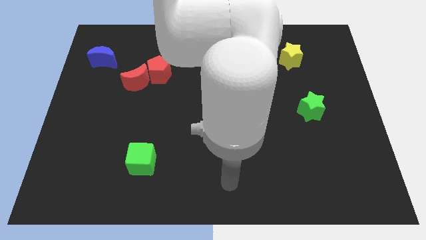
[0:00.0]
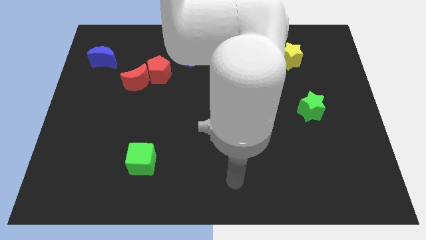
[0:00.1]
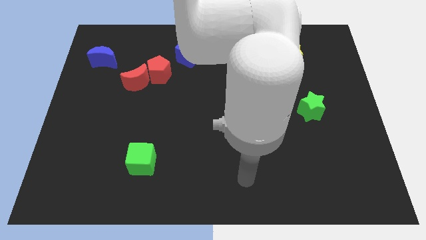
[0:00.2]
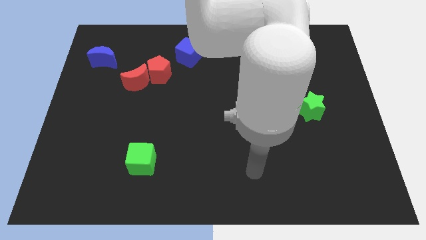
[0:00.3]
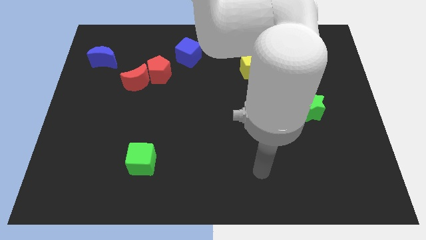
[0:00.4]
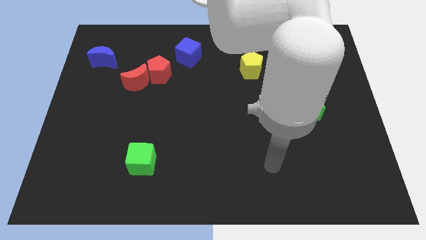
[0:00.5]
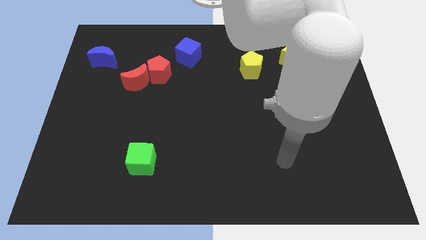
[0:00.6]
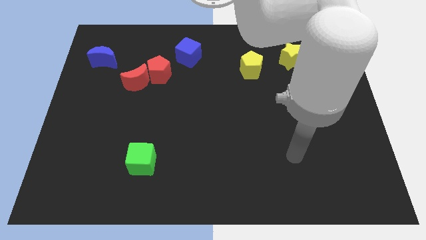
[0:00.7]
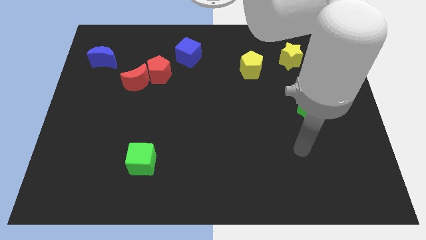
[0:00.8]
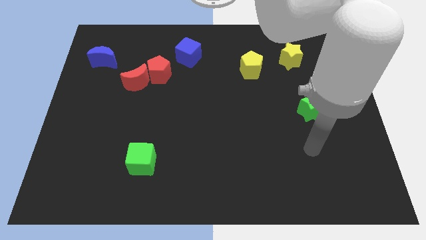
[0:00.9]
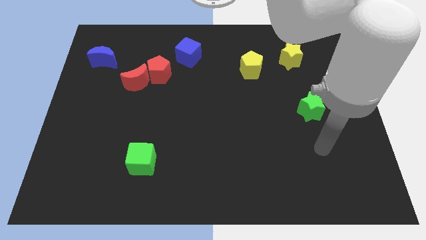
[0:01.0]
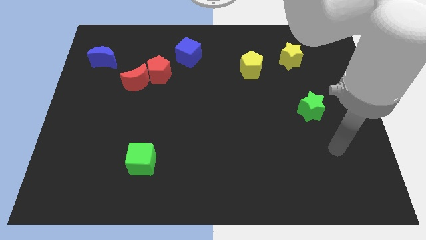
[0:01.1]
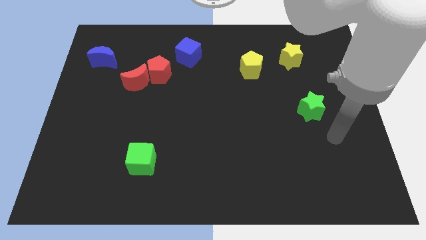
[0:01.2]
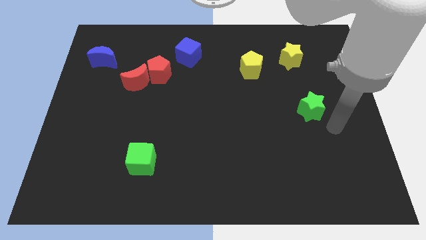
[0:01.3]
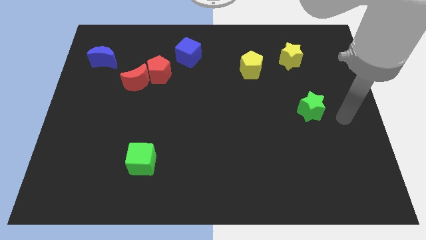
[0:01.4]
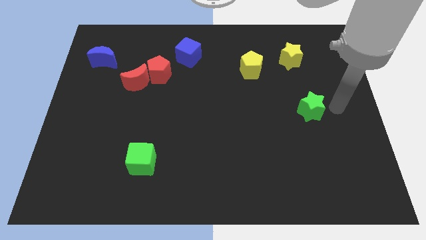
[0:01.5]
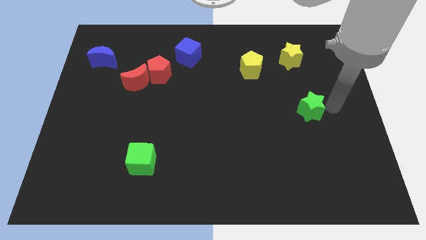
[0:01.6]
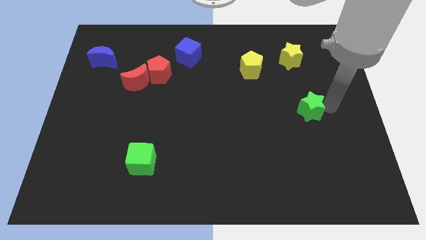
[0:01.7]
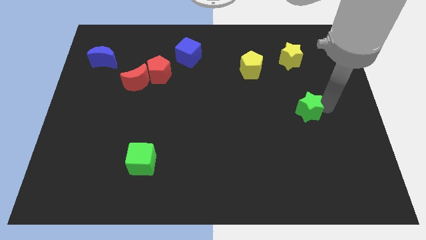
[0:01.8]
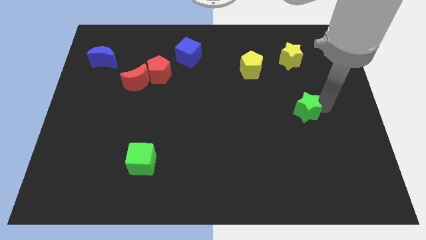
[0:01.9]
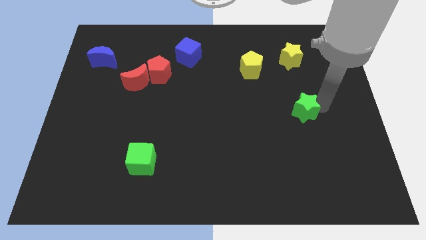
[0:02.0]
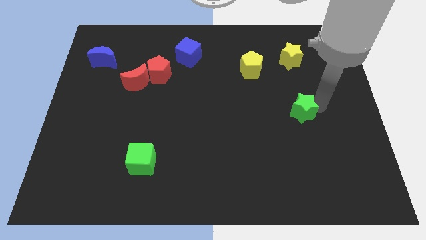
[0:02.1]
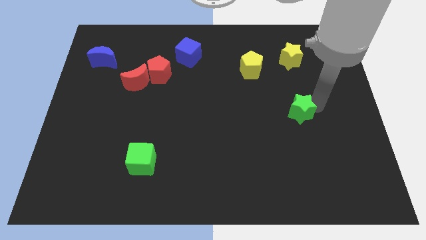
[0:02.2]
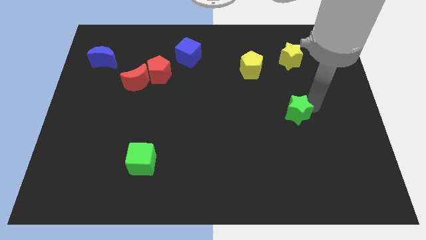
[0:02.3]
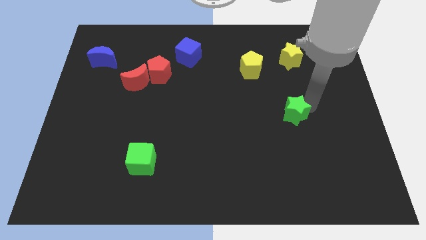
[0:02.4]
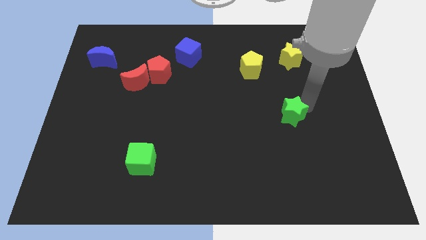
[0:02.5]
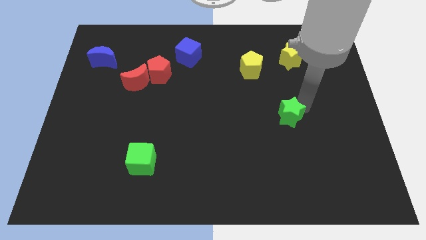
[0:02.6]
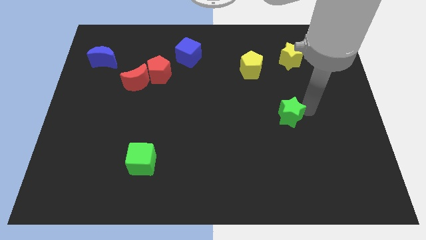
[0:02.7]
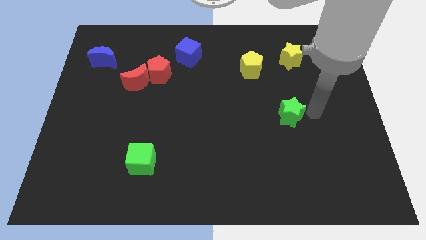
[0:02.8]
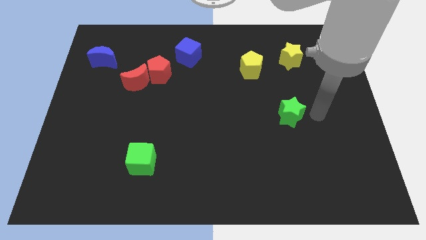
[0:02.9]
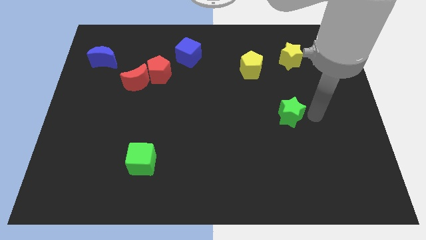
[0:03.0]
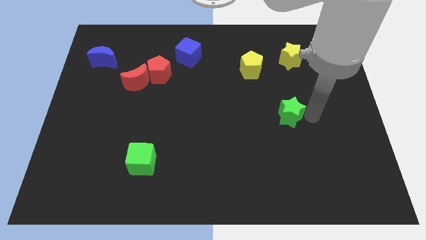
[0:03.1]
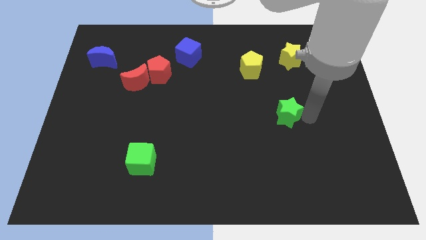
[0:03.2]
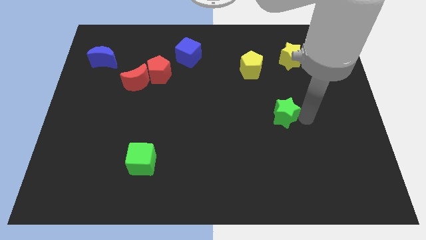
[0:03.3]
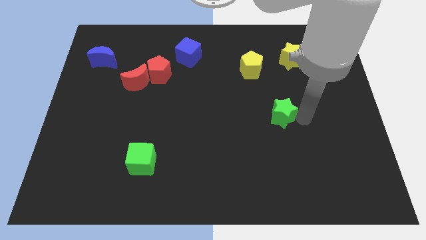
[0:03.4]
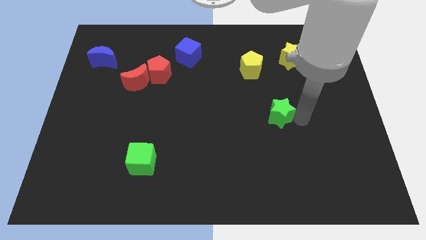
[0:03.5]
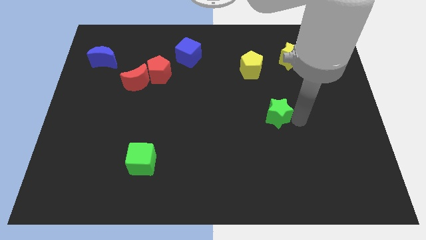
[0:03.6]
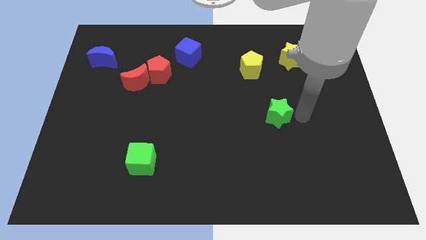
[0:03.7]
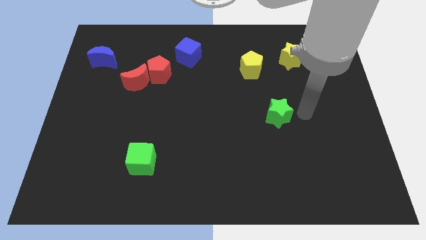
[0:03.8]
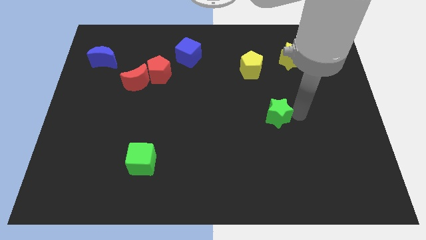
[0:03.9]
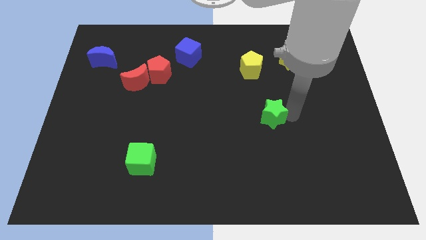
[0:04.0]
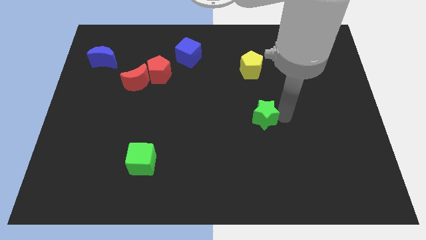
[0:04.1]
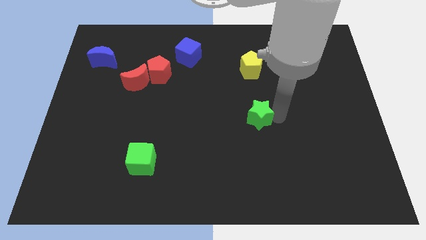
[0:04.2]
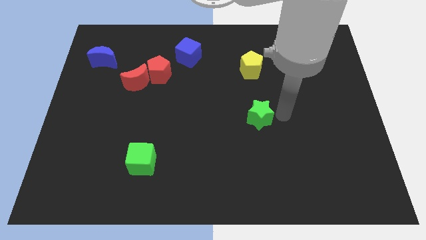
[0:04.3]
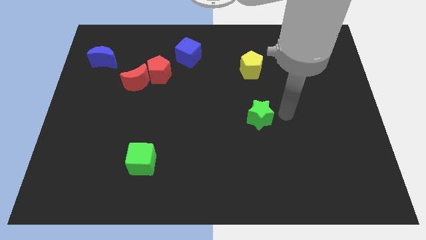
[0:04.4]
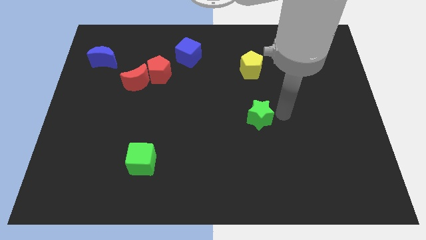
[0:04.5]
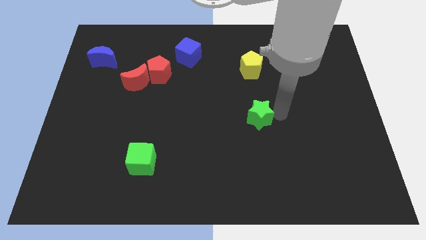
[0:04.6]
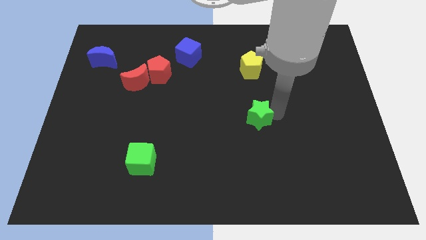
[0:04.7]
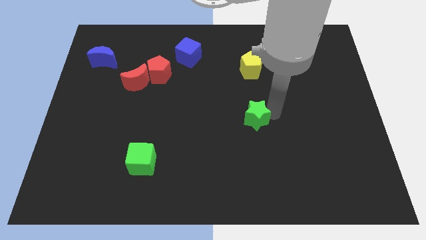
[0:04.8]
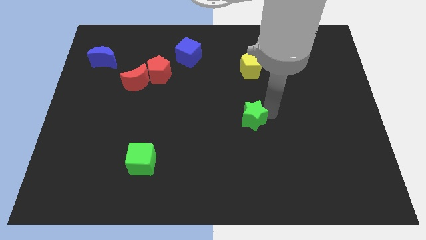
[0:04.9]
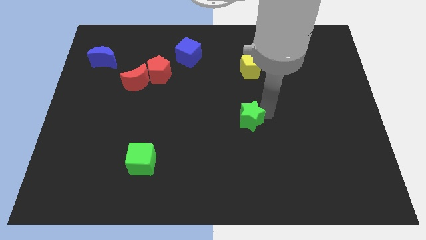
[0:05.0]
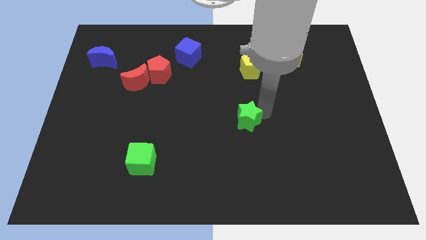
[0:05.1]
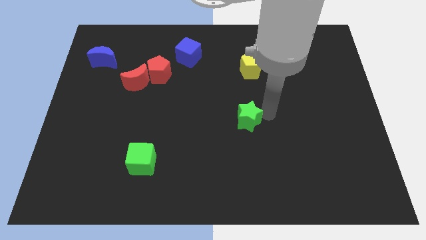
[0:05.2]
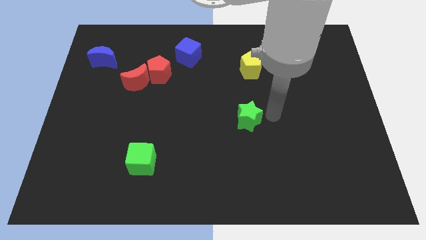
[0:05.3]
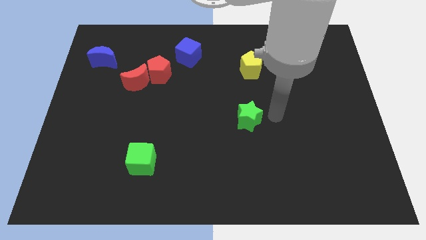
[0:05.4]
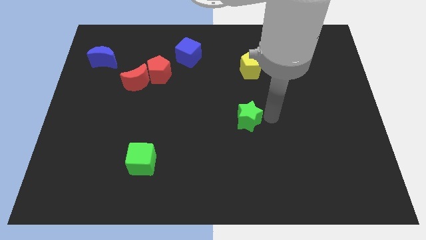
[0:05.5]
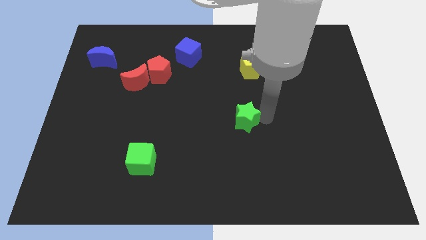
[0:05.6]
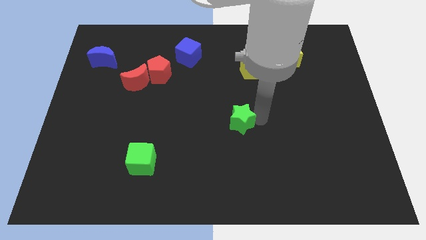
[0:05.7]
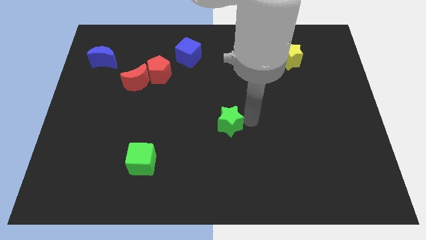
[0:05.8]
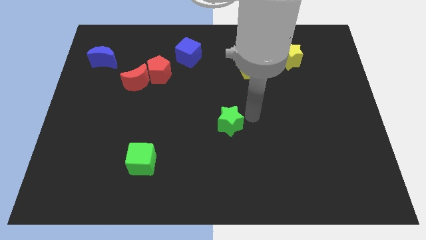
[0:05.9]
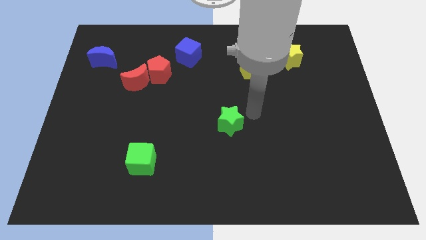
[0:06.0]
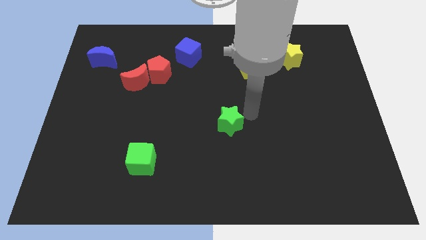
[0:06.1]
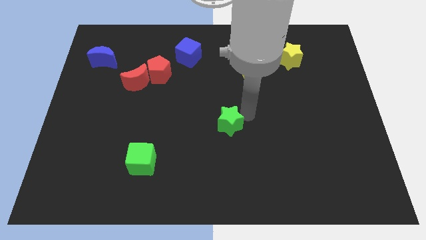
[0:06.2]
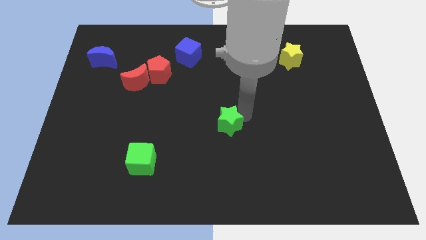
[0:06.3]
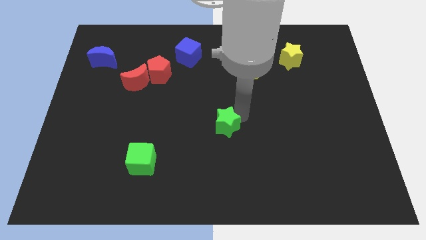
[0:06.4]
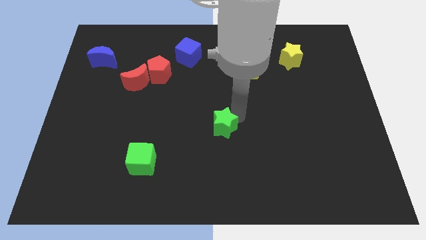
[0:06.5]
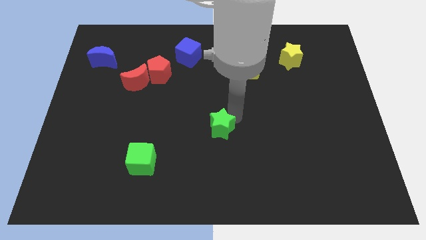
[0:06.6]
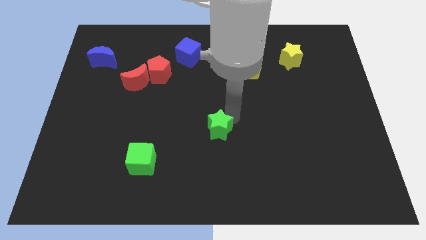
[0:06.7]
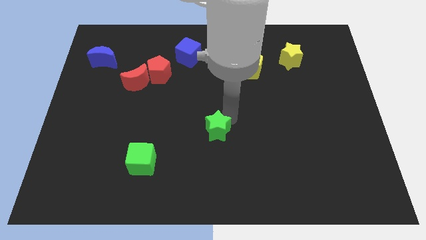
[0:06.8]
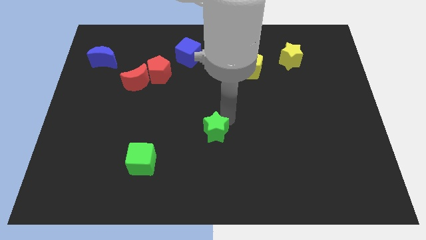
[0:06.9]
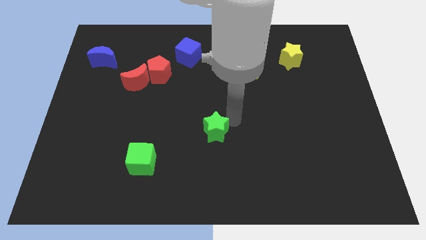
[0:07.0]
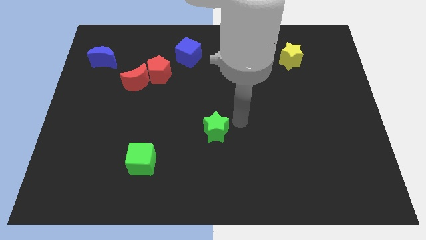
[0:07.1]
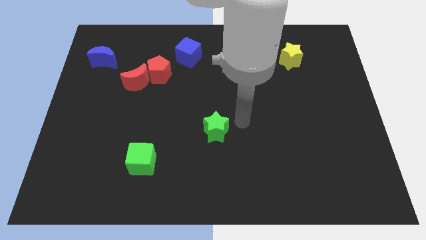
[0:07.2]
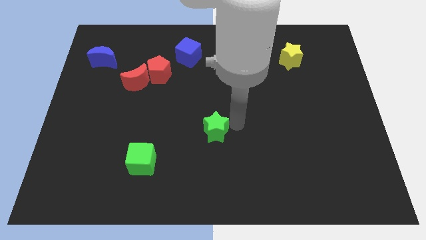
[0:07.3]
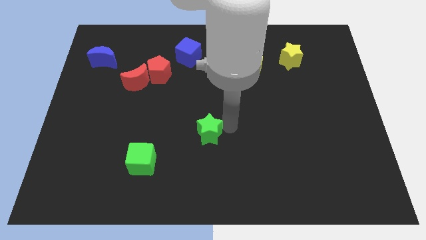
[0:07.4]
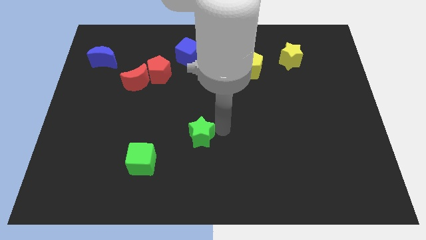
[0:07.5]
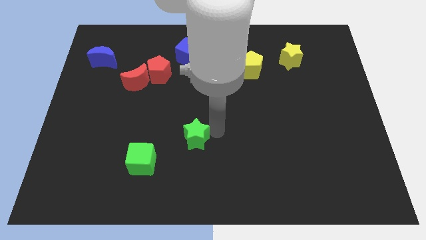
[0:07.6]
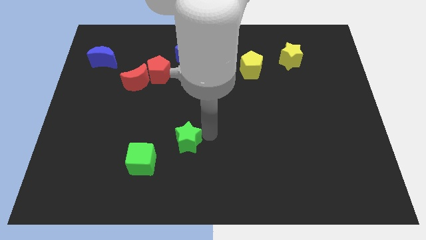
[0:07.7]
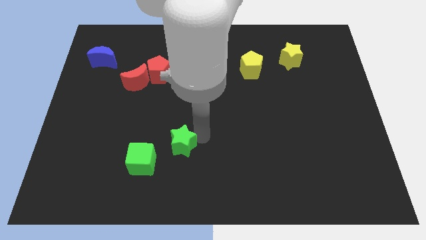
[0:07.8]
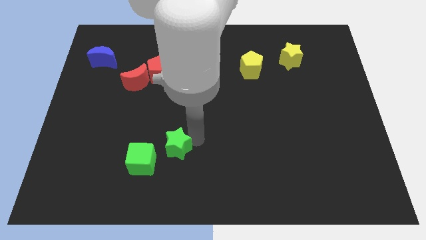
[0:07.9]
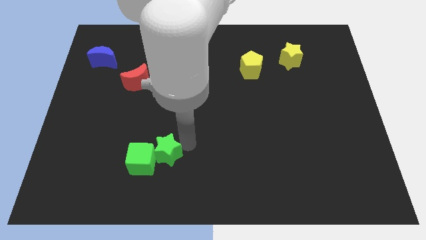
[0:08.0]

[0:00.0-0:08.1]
slide the green star towards the green cube

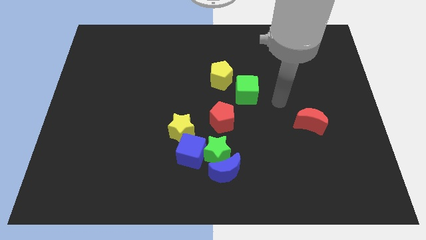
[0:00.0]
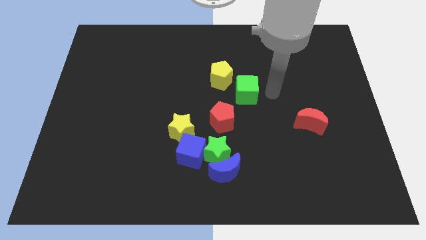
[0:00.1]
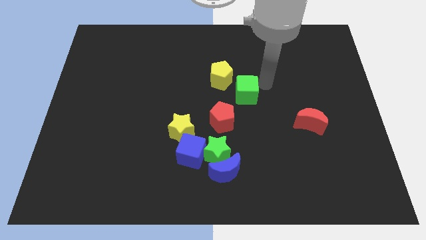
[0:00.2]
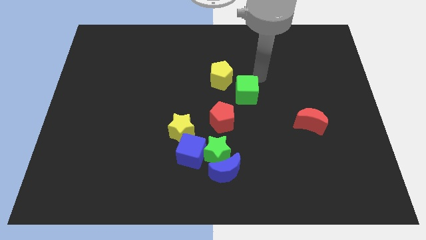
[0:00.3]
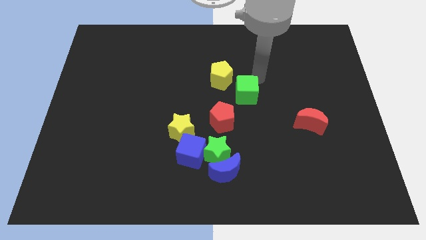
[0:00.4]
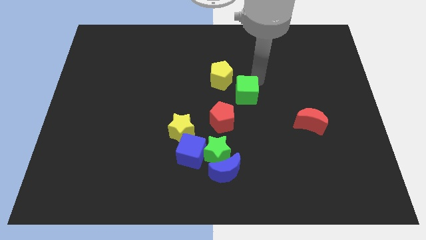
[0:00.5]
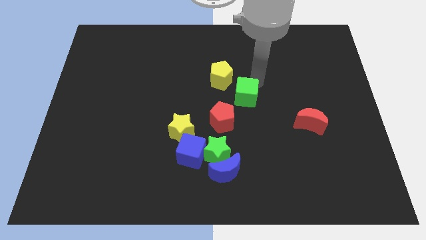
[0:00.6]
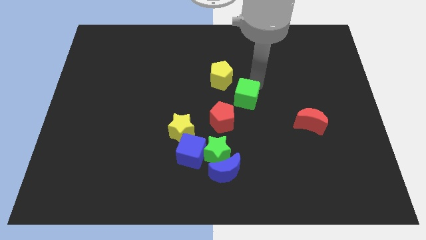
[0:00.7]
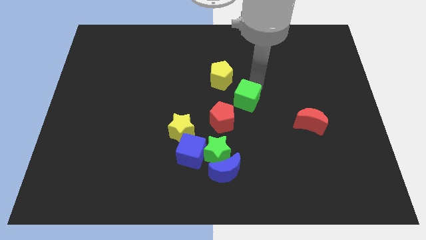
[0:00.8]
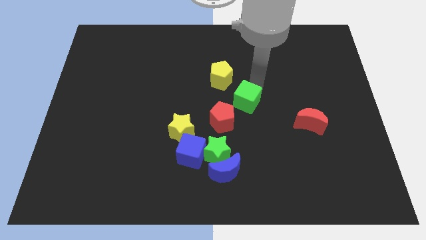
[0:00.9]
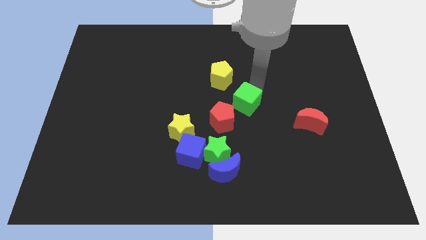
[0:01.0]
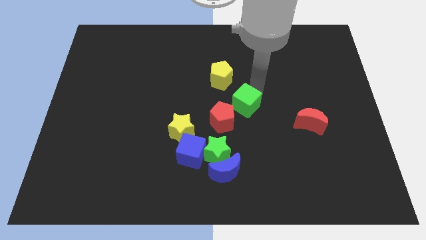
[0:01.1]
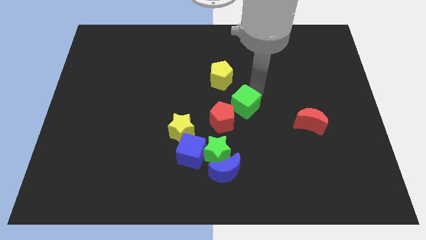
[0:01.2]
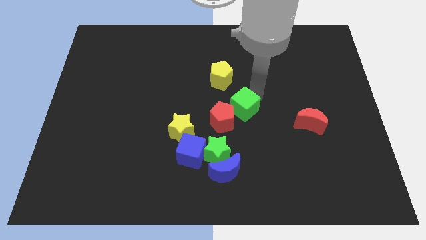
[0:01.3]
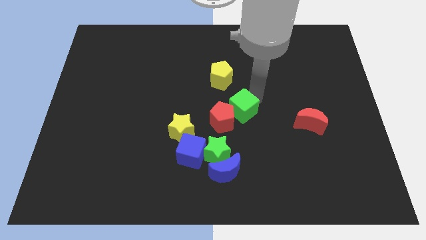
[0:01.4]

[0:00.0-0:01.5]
put the green cube to the red pentagon
